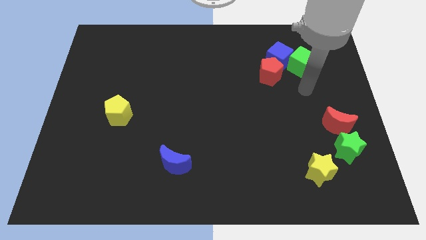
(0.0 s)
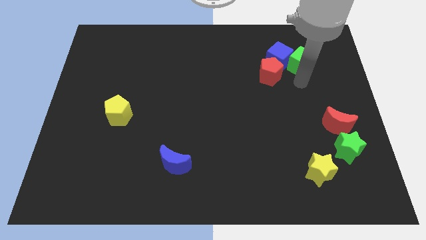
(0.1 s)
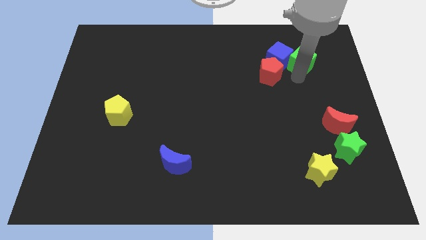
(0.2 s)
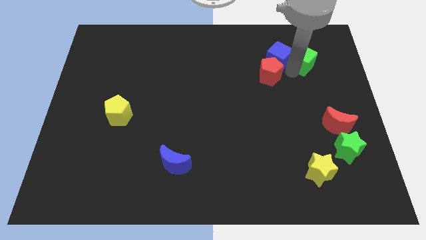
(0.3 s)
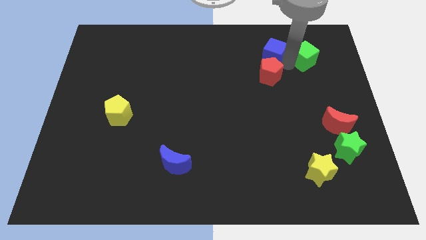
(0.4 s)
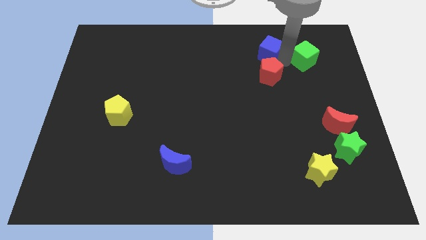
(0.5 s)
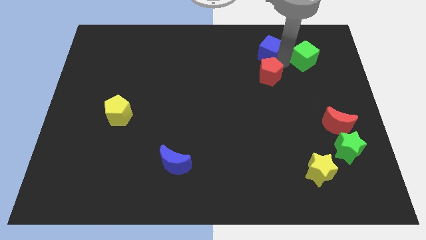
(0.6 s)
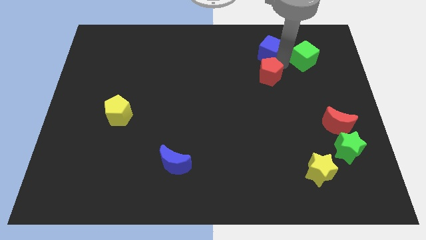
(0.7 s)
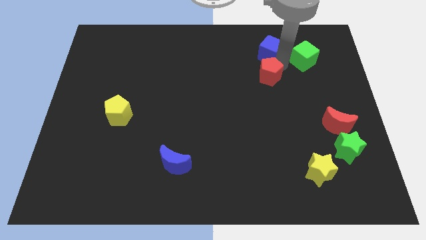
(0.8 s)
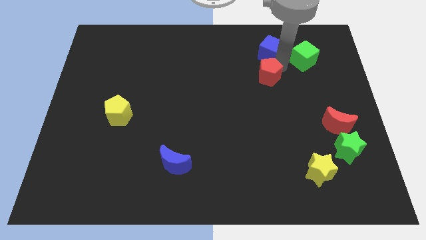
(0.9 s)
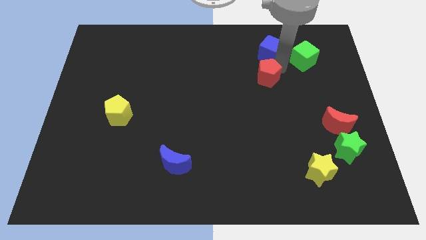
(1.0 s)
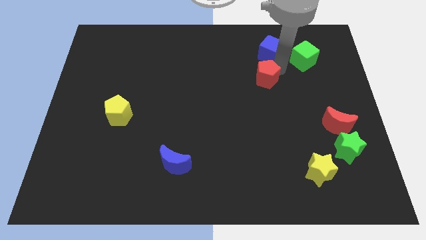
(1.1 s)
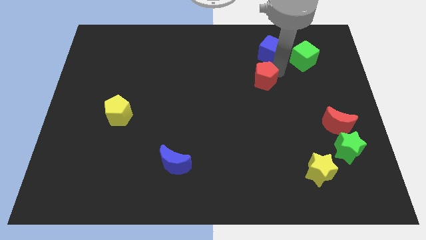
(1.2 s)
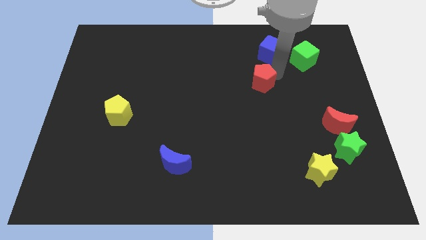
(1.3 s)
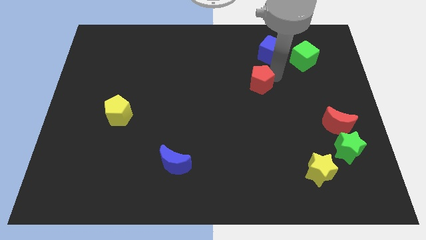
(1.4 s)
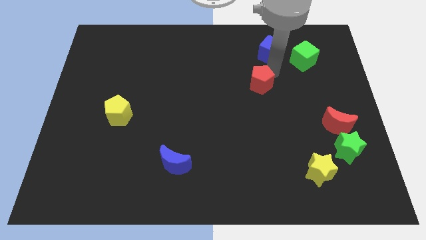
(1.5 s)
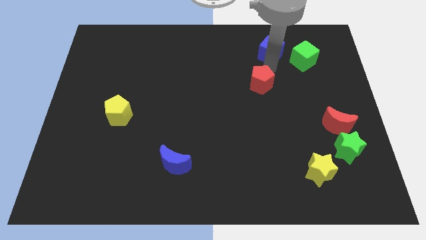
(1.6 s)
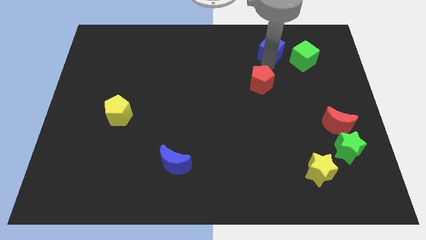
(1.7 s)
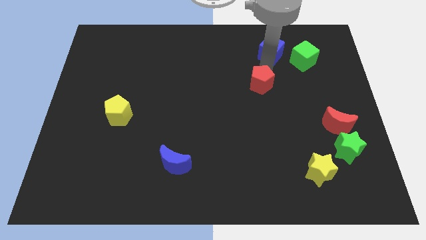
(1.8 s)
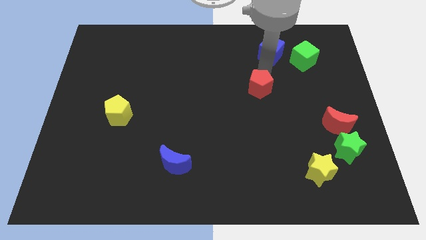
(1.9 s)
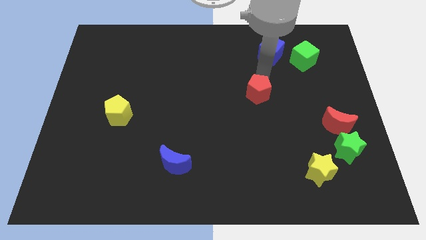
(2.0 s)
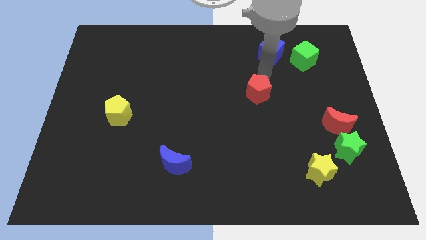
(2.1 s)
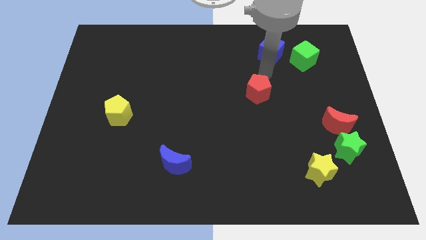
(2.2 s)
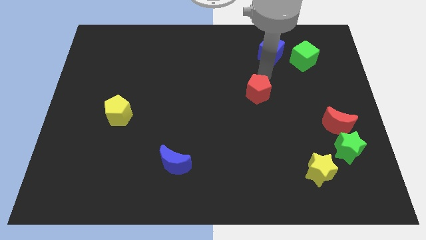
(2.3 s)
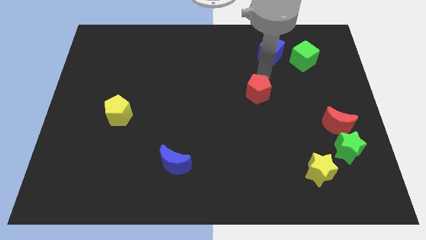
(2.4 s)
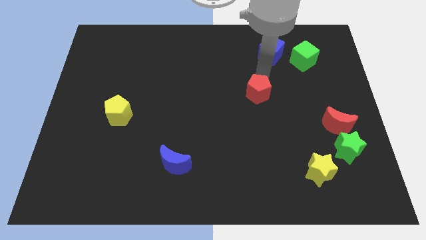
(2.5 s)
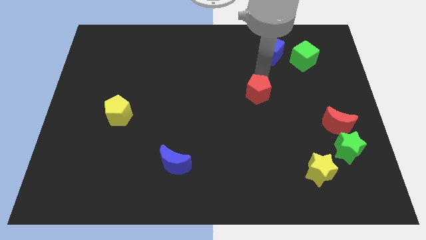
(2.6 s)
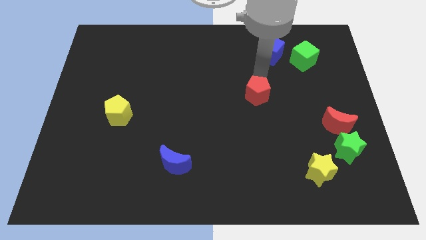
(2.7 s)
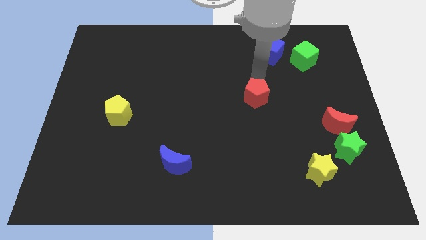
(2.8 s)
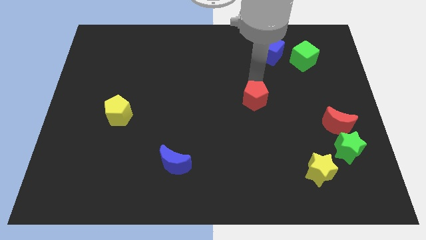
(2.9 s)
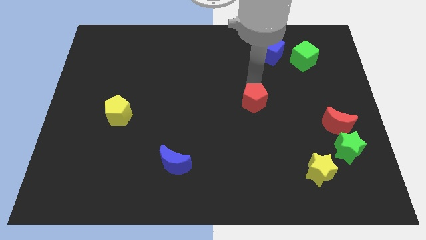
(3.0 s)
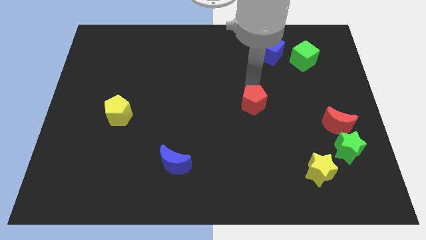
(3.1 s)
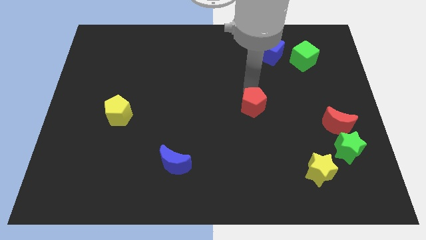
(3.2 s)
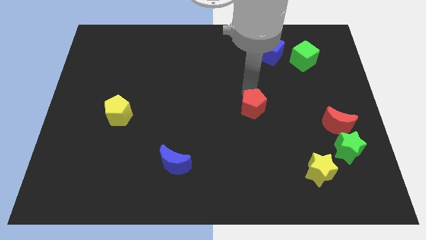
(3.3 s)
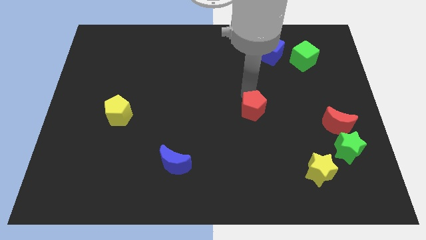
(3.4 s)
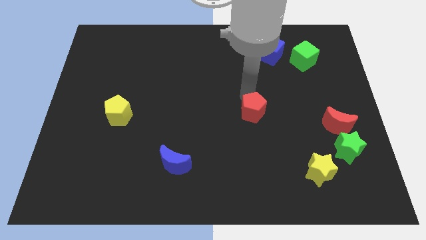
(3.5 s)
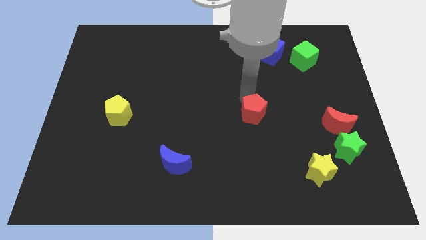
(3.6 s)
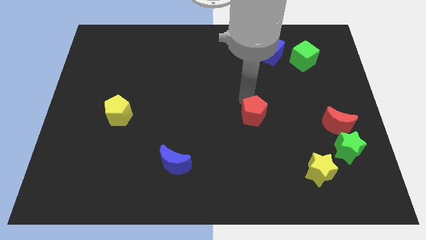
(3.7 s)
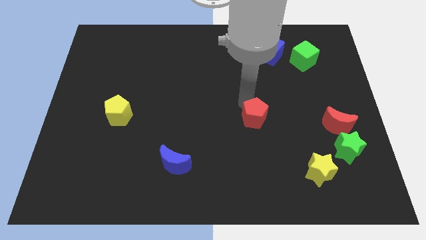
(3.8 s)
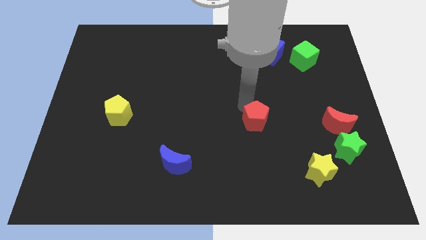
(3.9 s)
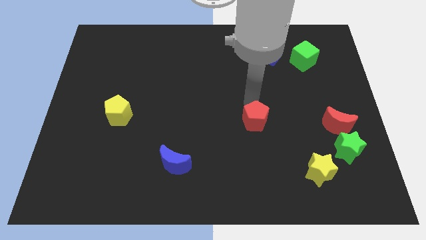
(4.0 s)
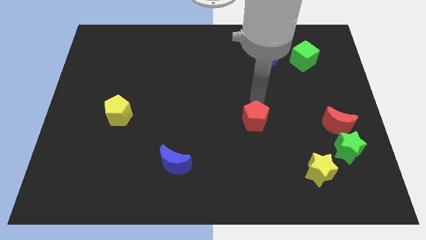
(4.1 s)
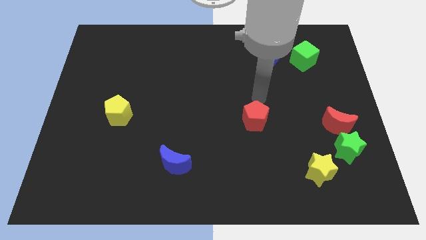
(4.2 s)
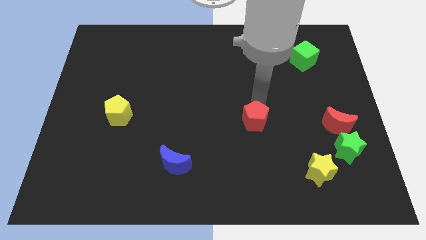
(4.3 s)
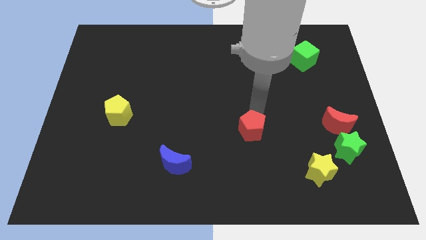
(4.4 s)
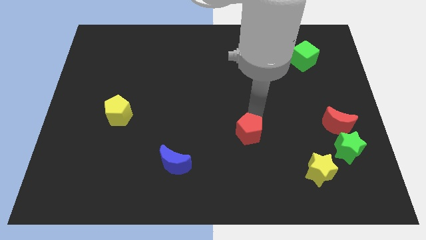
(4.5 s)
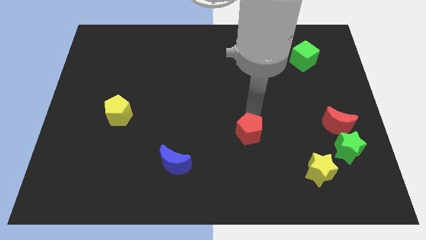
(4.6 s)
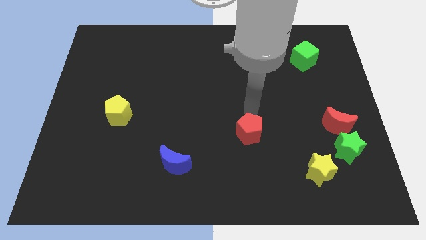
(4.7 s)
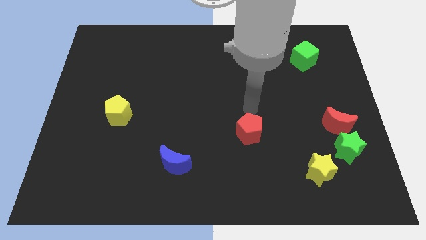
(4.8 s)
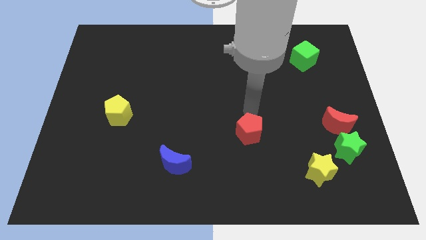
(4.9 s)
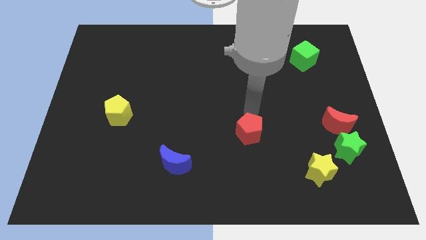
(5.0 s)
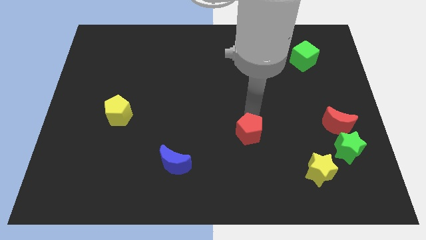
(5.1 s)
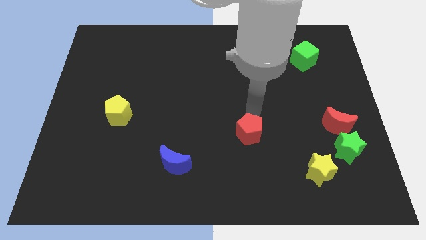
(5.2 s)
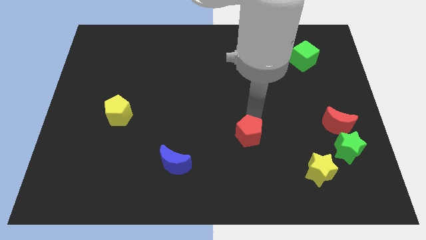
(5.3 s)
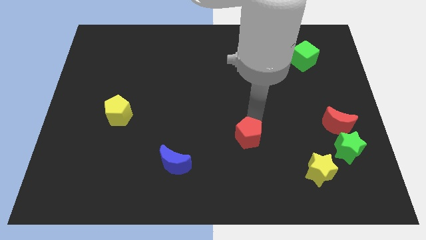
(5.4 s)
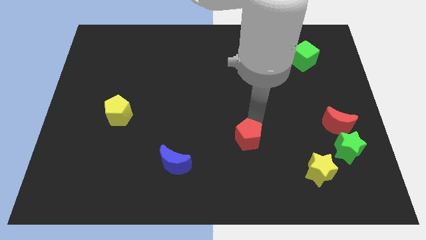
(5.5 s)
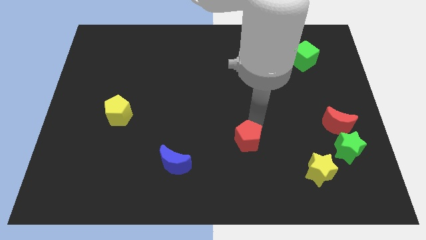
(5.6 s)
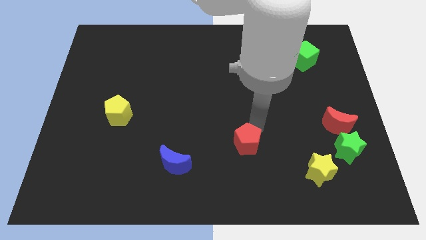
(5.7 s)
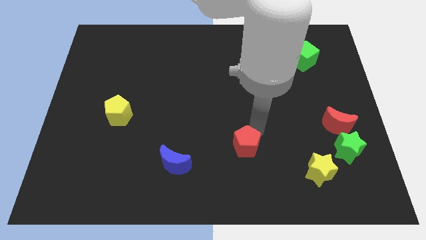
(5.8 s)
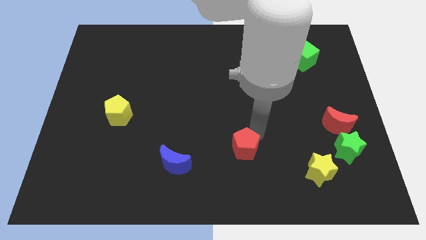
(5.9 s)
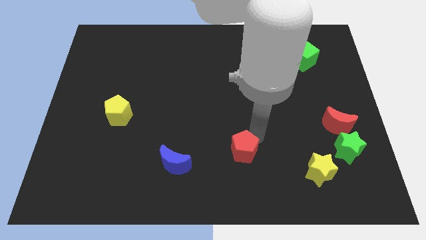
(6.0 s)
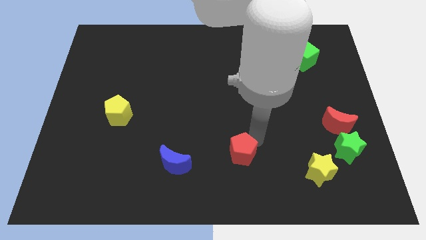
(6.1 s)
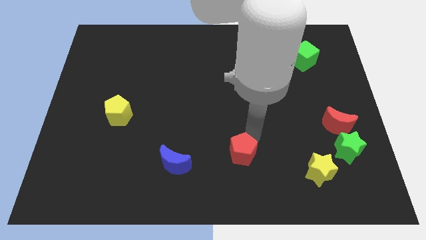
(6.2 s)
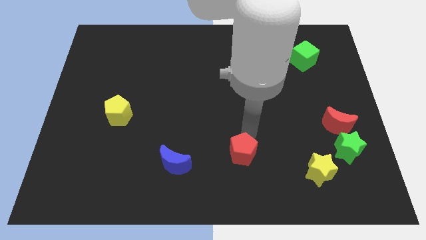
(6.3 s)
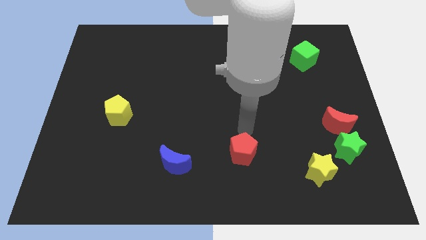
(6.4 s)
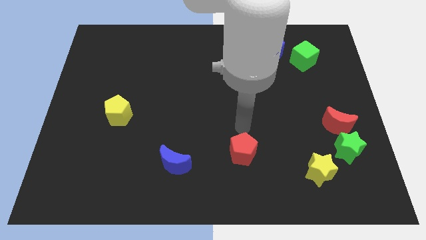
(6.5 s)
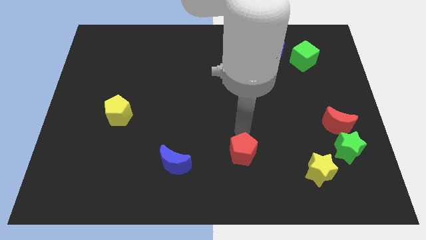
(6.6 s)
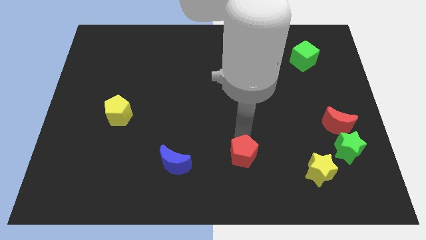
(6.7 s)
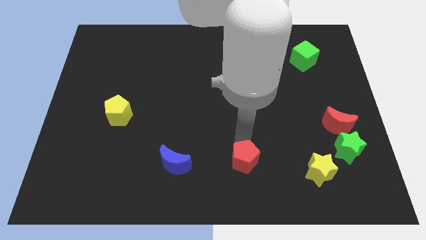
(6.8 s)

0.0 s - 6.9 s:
push the red pentagon to the bottom
